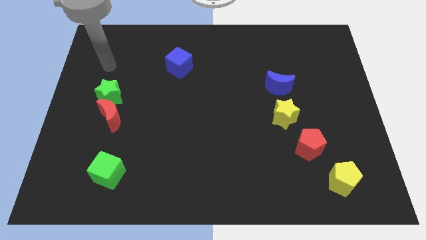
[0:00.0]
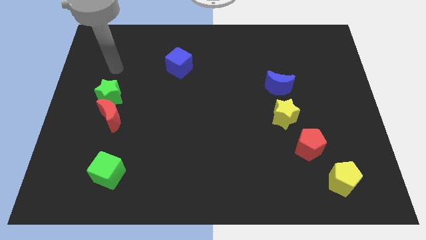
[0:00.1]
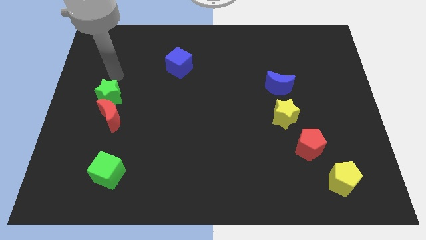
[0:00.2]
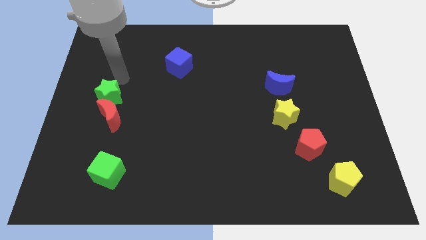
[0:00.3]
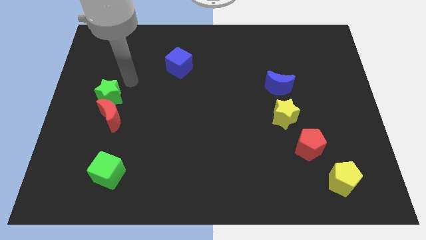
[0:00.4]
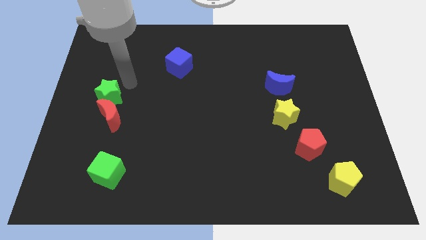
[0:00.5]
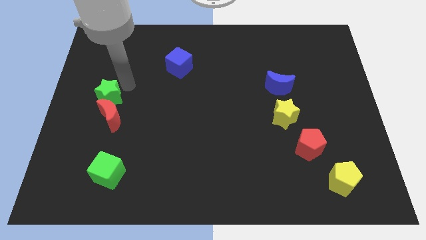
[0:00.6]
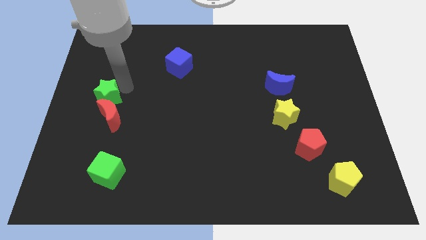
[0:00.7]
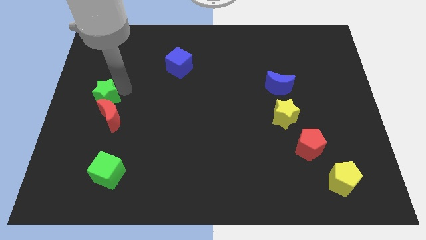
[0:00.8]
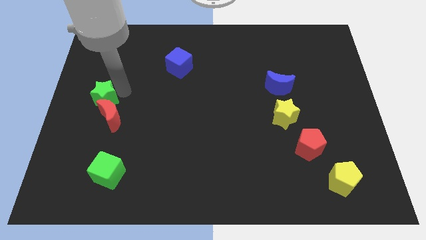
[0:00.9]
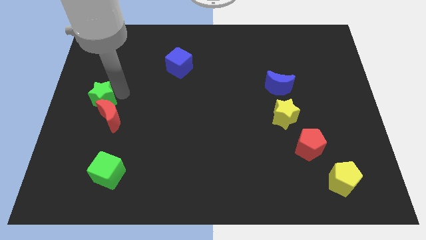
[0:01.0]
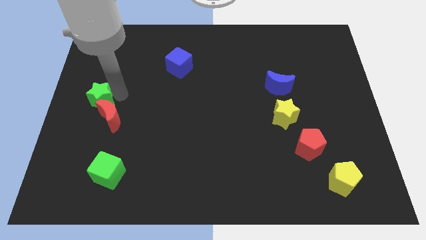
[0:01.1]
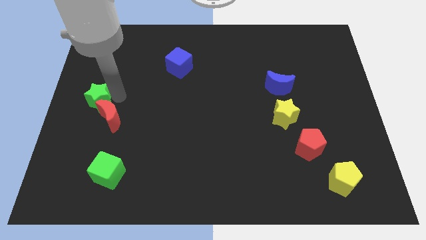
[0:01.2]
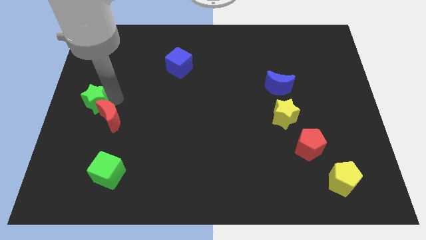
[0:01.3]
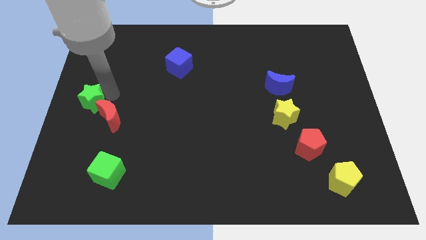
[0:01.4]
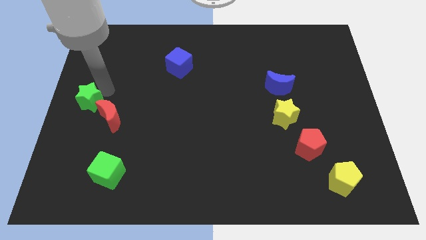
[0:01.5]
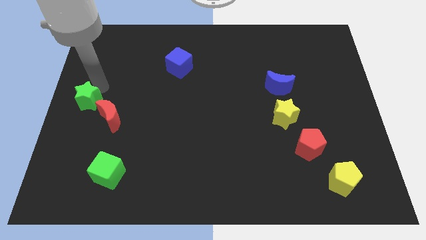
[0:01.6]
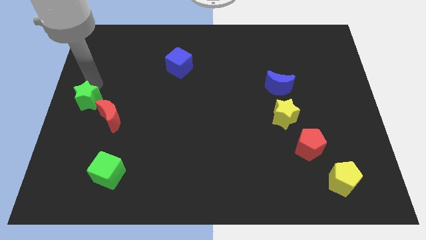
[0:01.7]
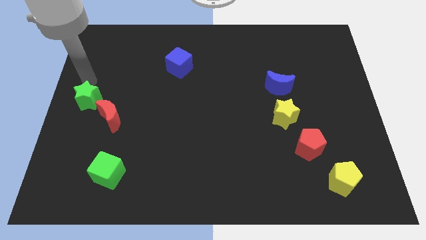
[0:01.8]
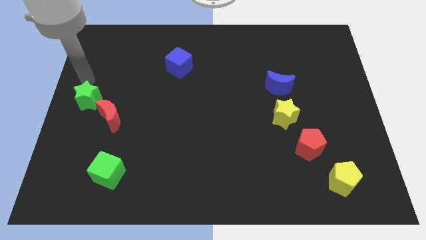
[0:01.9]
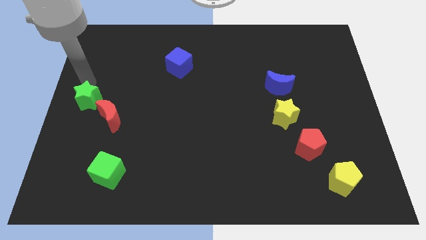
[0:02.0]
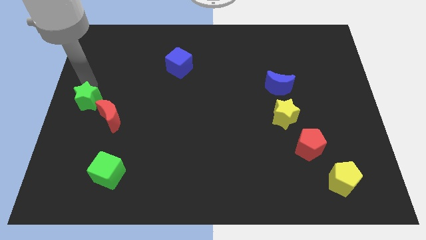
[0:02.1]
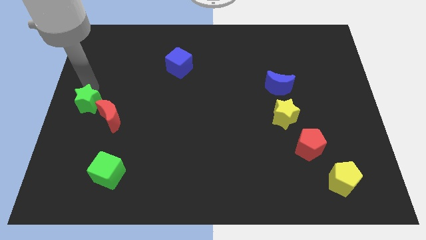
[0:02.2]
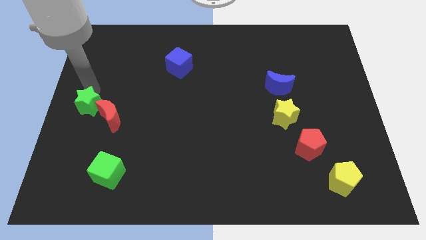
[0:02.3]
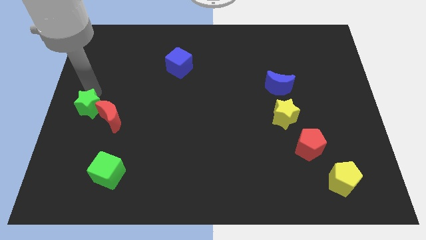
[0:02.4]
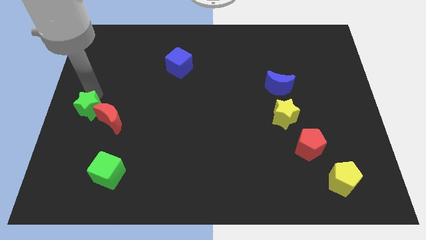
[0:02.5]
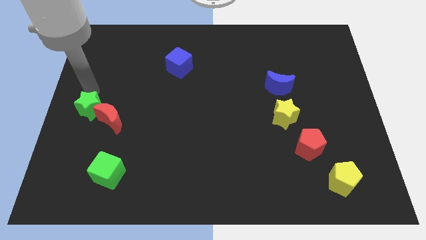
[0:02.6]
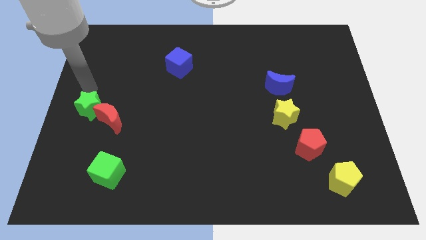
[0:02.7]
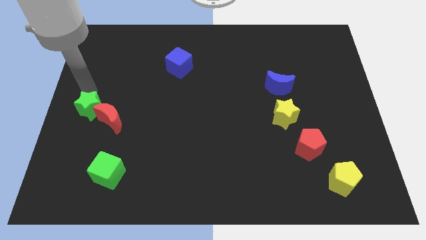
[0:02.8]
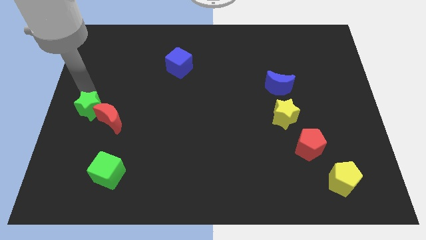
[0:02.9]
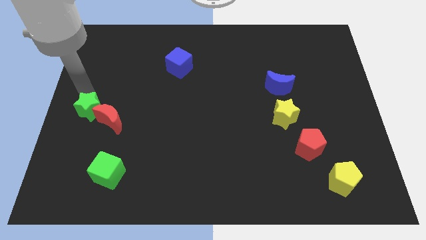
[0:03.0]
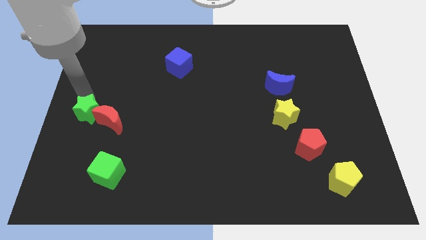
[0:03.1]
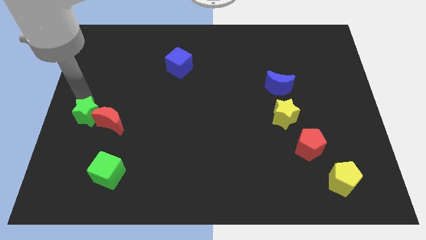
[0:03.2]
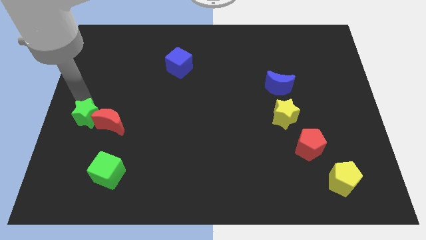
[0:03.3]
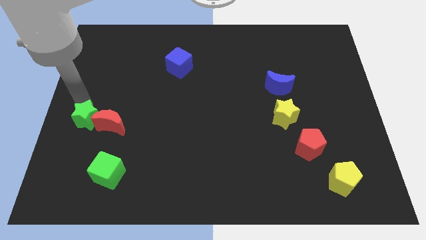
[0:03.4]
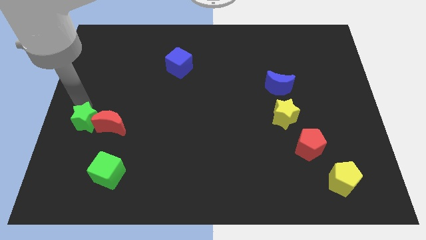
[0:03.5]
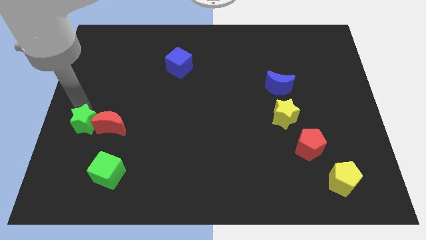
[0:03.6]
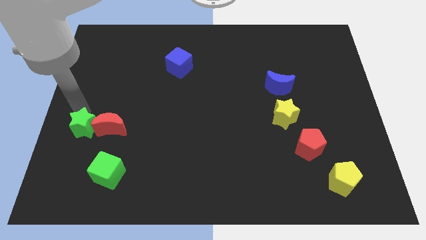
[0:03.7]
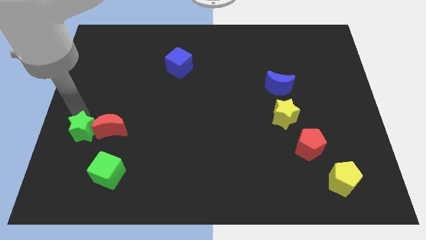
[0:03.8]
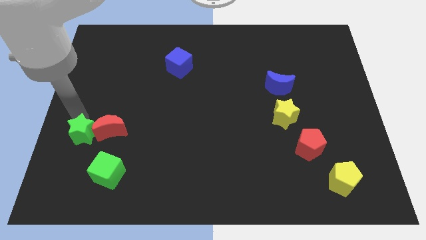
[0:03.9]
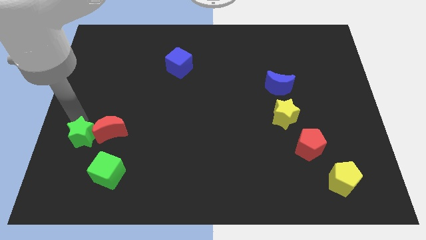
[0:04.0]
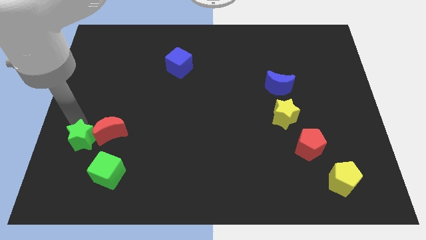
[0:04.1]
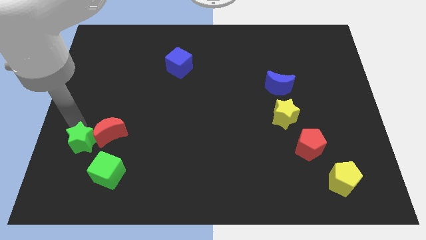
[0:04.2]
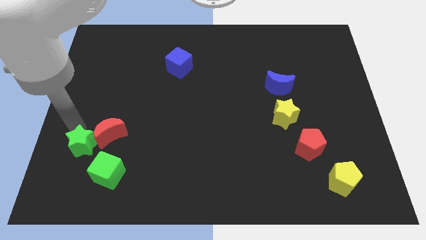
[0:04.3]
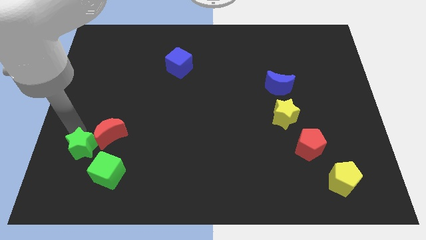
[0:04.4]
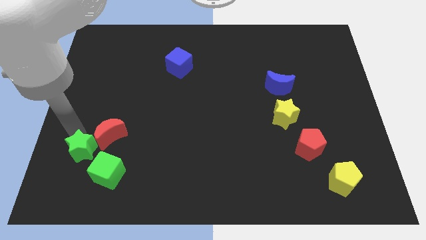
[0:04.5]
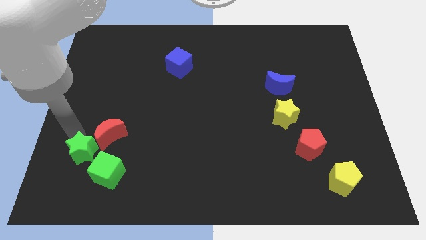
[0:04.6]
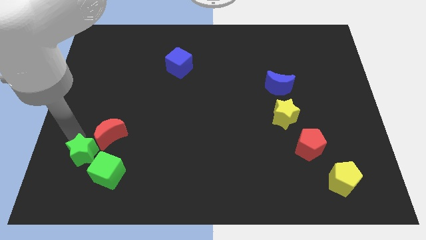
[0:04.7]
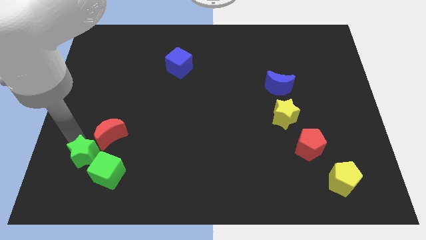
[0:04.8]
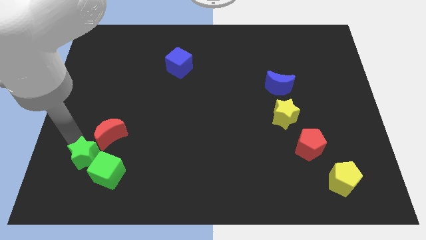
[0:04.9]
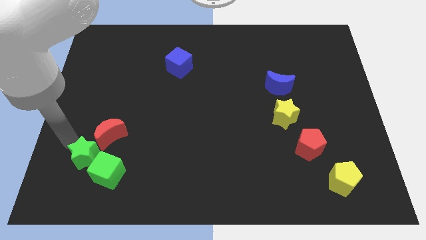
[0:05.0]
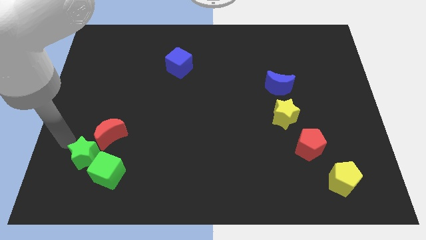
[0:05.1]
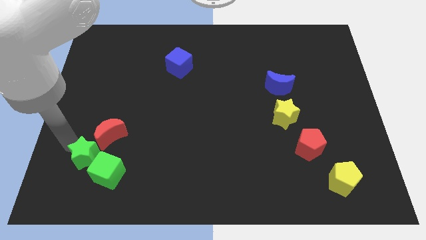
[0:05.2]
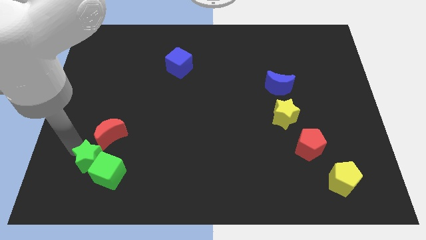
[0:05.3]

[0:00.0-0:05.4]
put the green star next to the green cube

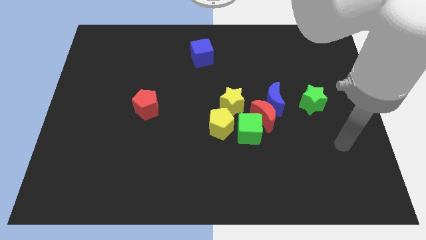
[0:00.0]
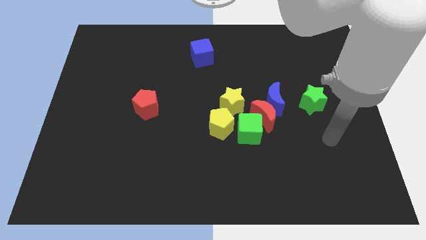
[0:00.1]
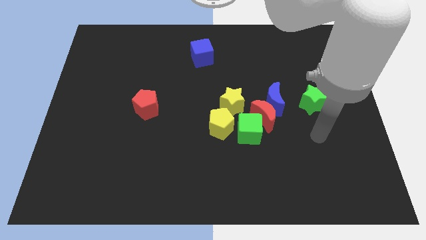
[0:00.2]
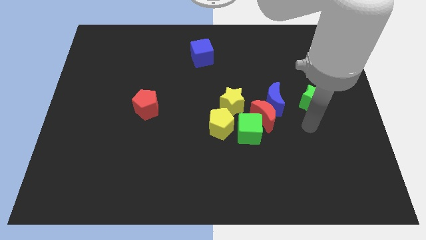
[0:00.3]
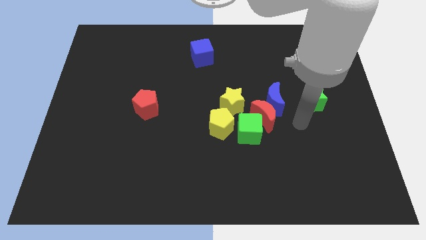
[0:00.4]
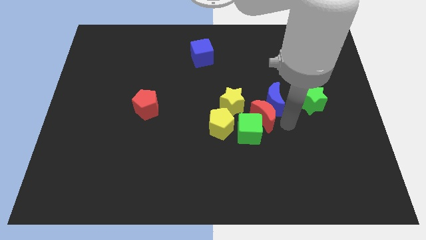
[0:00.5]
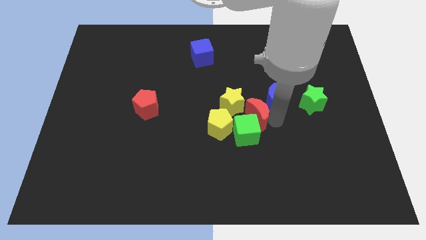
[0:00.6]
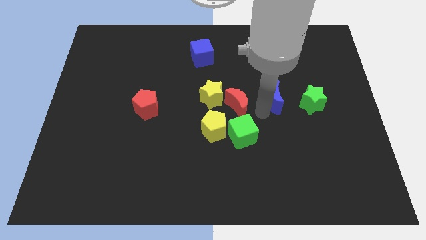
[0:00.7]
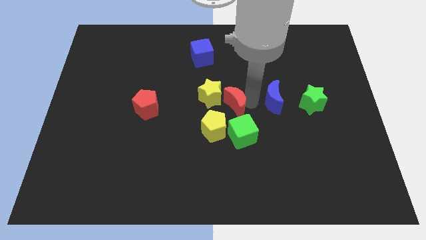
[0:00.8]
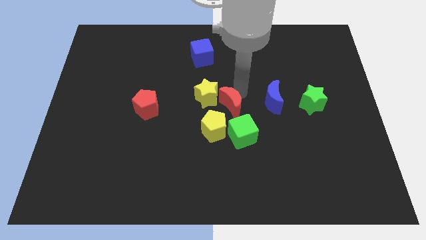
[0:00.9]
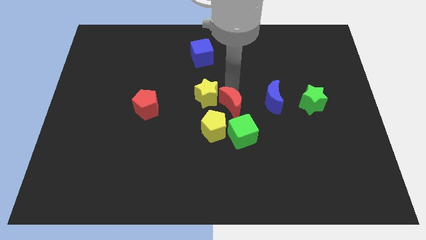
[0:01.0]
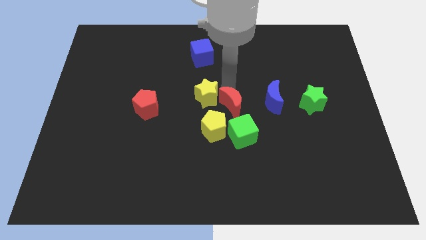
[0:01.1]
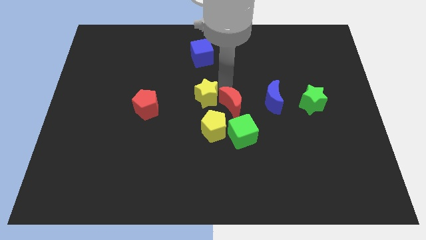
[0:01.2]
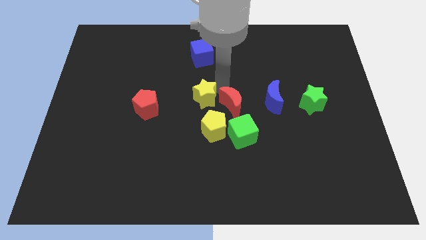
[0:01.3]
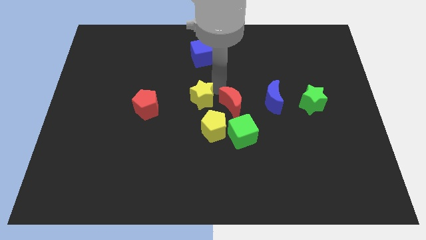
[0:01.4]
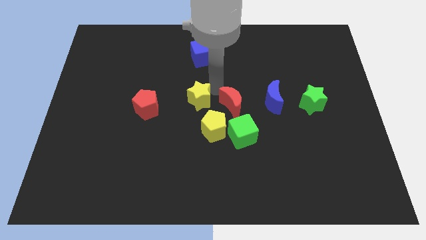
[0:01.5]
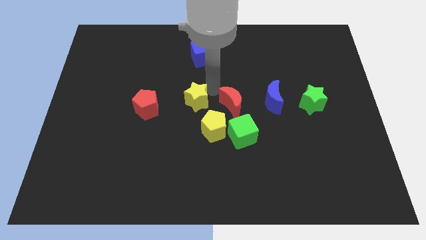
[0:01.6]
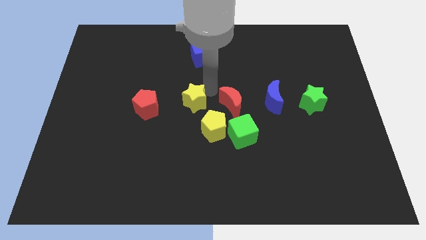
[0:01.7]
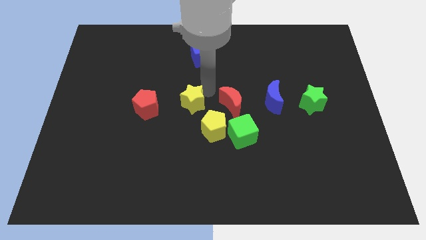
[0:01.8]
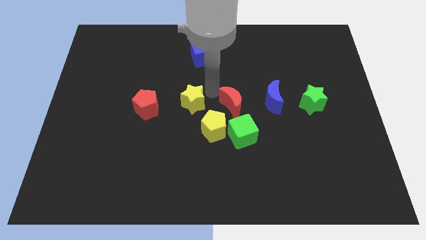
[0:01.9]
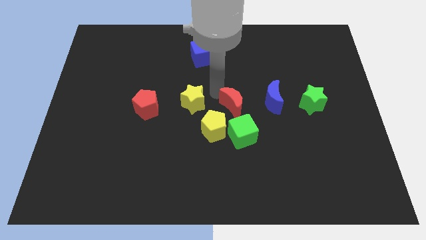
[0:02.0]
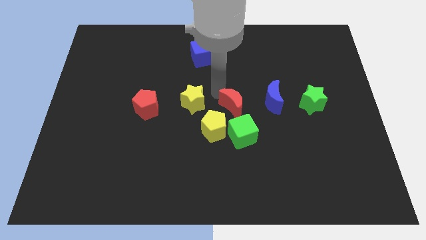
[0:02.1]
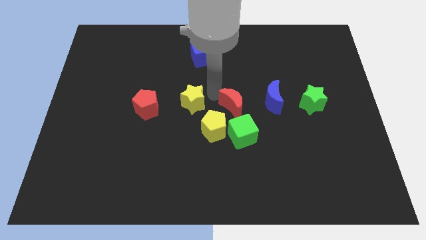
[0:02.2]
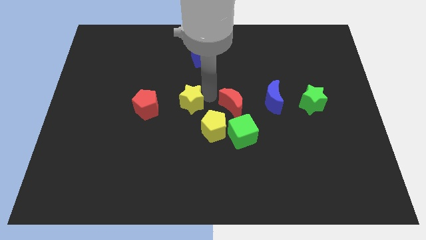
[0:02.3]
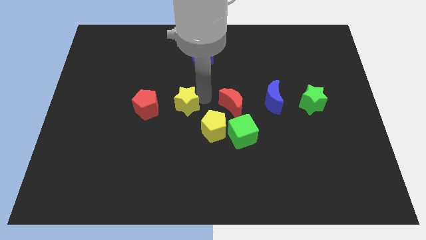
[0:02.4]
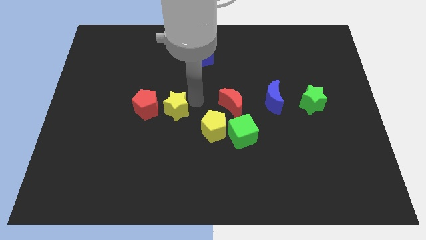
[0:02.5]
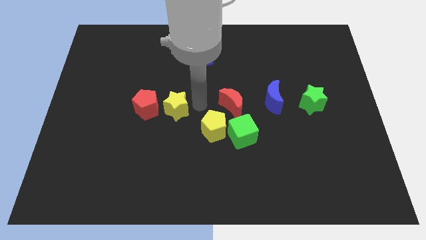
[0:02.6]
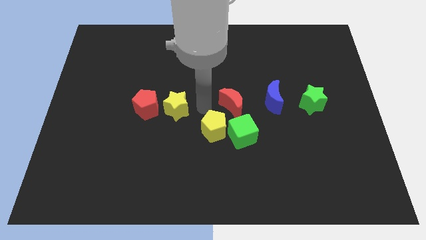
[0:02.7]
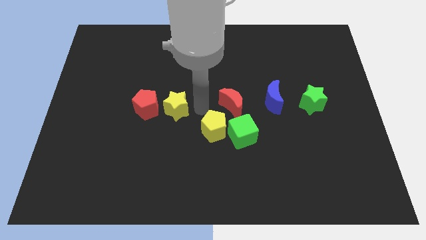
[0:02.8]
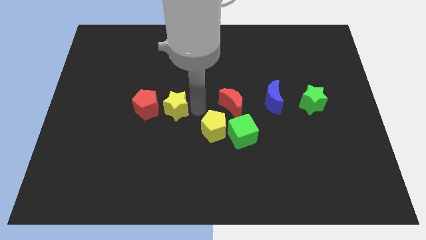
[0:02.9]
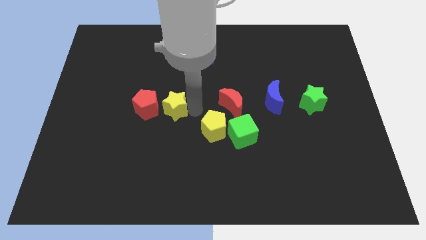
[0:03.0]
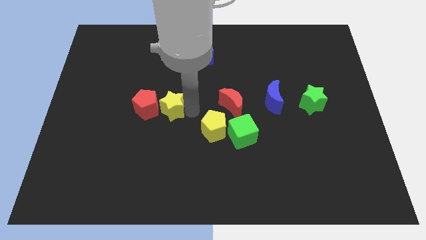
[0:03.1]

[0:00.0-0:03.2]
move the yellow star to the red pentagon
